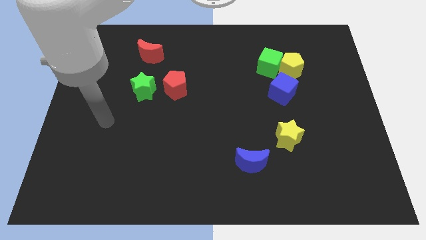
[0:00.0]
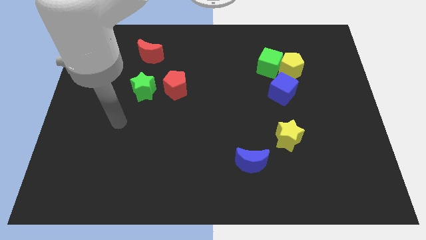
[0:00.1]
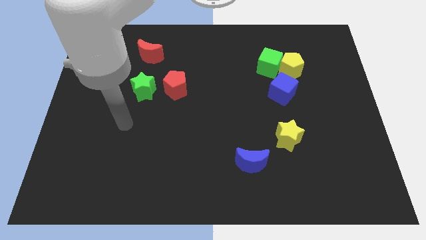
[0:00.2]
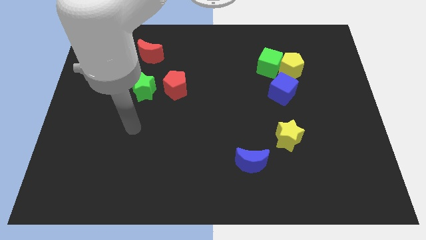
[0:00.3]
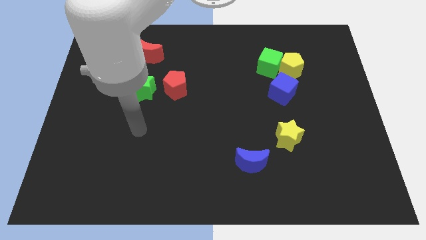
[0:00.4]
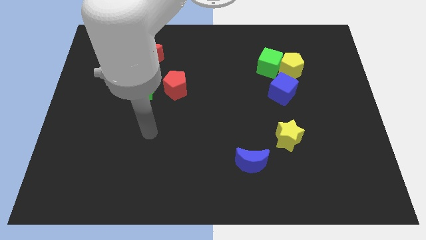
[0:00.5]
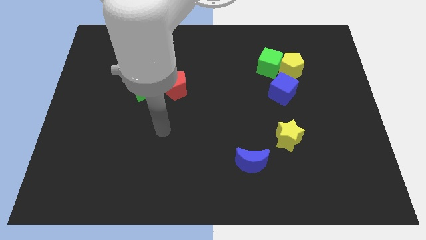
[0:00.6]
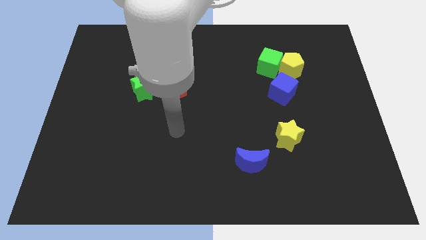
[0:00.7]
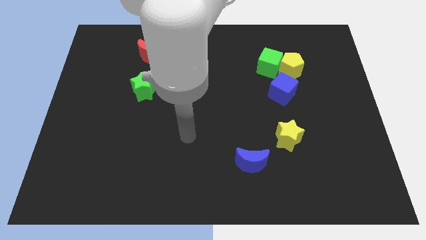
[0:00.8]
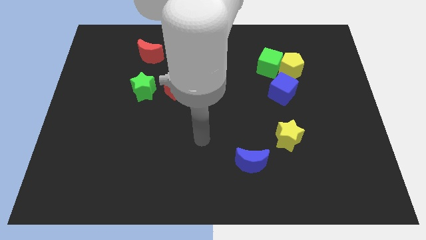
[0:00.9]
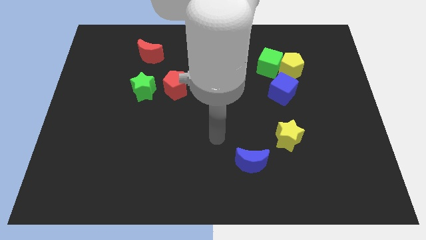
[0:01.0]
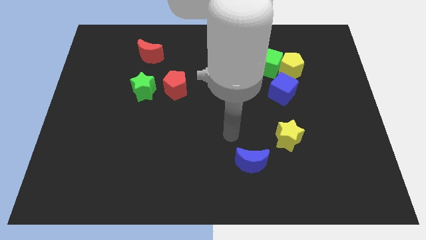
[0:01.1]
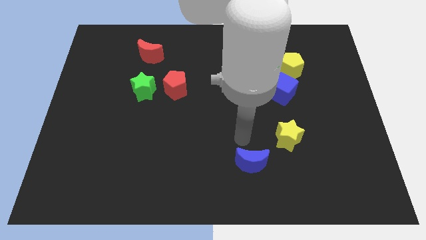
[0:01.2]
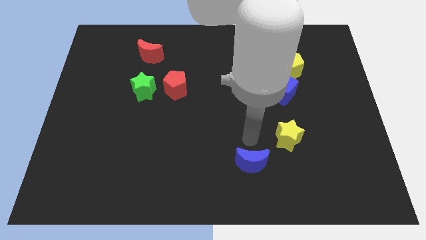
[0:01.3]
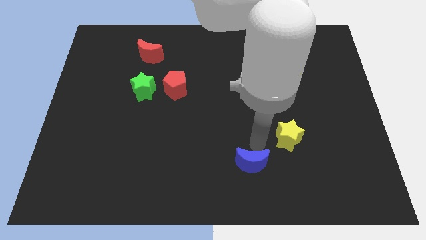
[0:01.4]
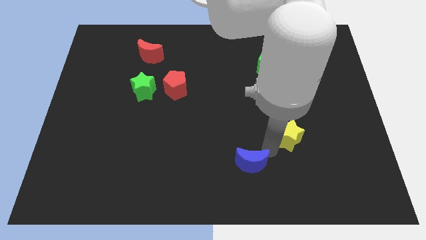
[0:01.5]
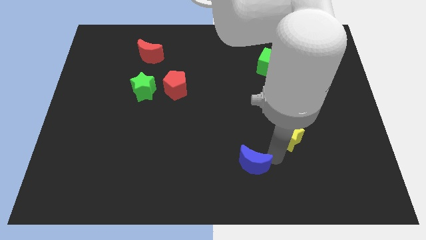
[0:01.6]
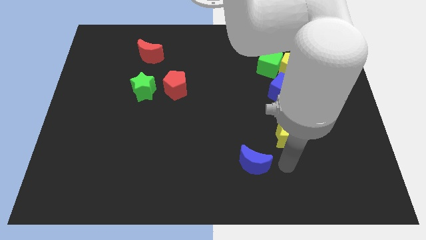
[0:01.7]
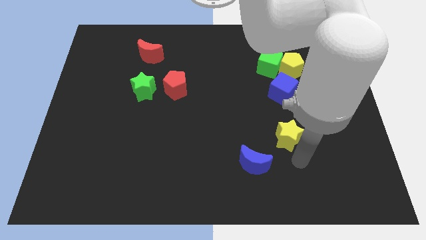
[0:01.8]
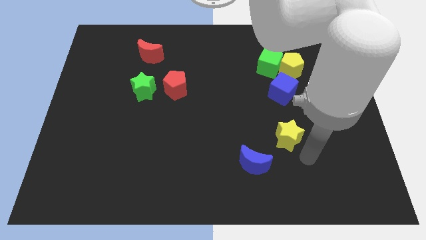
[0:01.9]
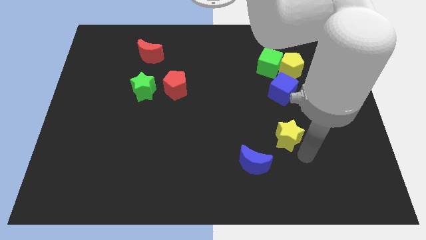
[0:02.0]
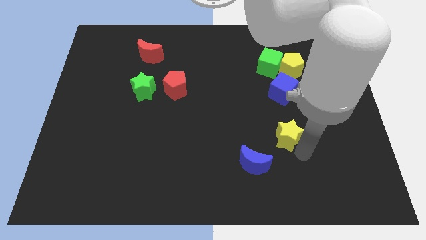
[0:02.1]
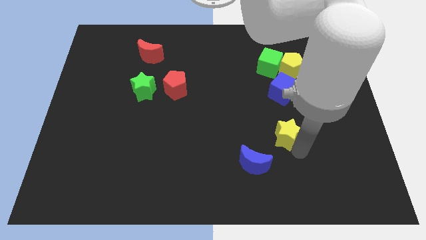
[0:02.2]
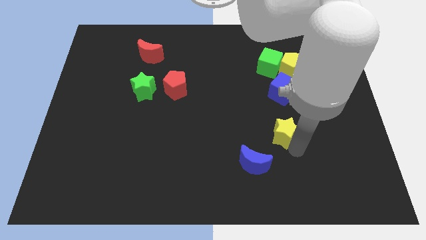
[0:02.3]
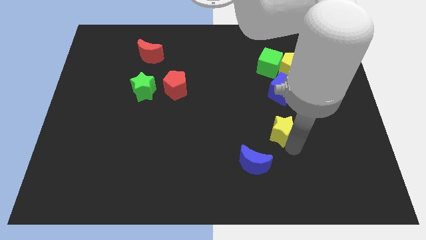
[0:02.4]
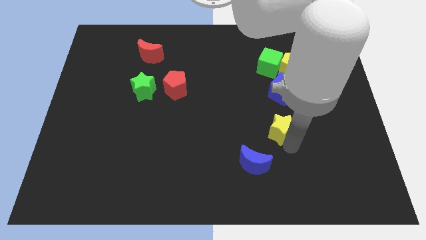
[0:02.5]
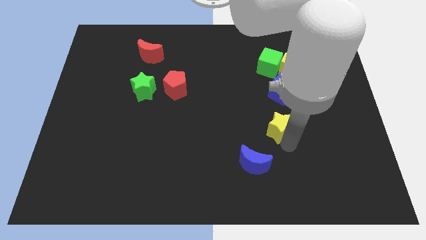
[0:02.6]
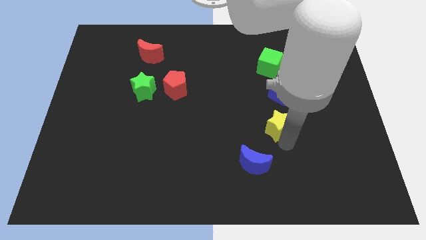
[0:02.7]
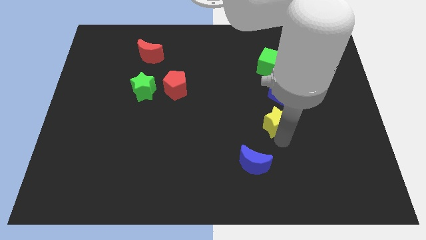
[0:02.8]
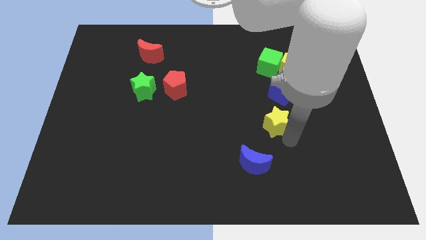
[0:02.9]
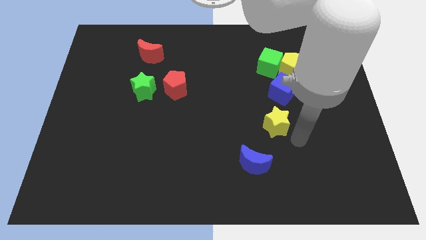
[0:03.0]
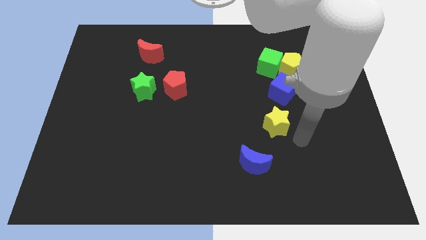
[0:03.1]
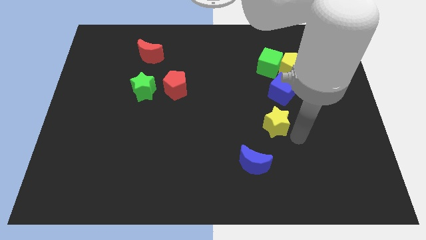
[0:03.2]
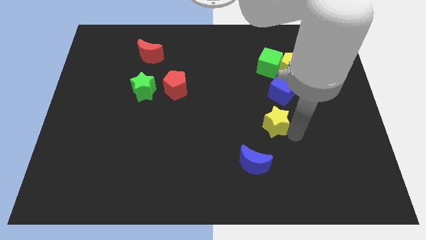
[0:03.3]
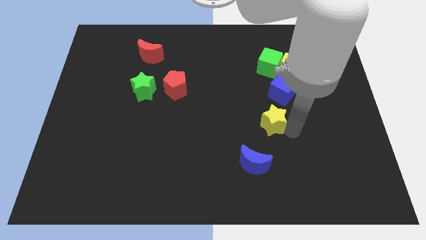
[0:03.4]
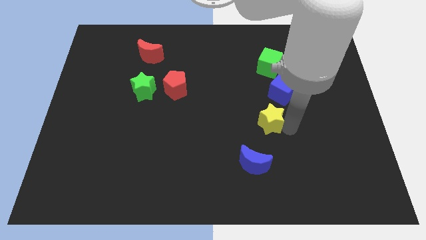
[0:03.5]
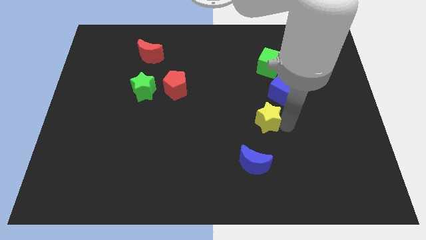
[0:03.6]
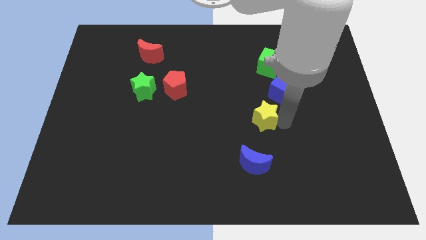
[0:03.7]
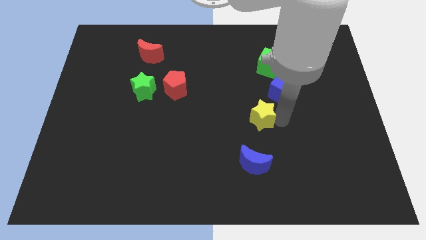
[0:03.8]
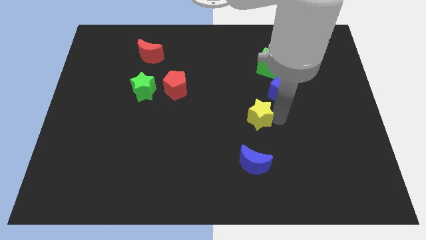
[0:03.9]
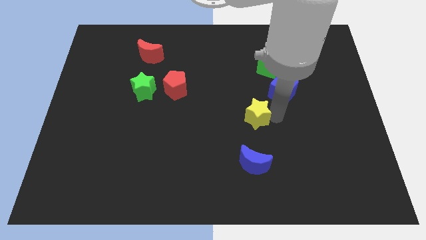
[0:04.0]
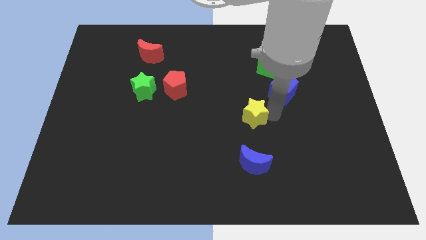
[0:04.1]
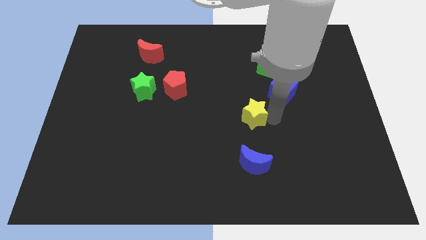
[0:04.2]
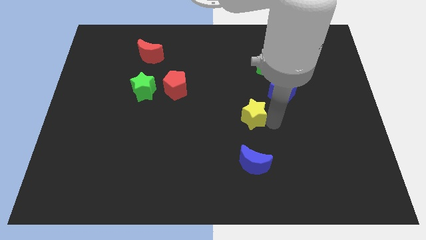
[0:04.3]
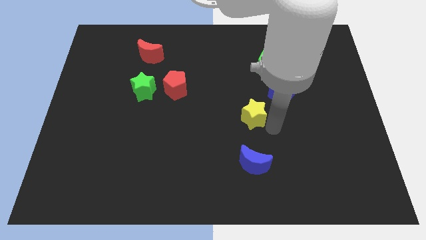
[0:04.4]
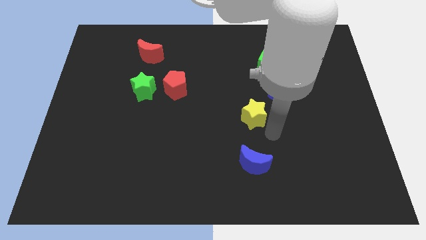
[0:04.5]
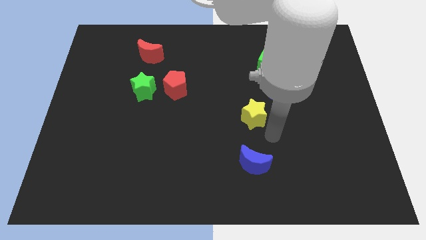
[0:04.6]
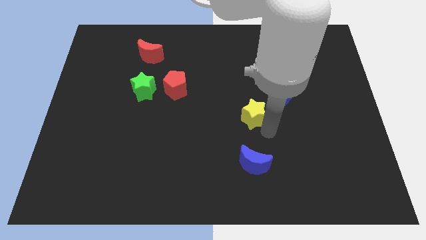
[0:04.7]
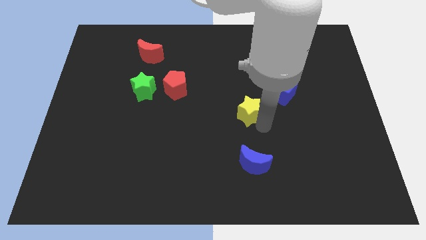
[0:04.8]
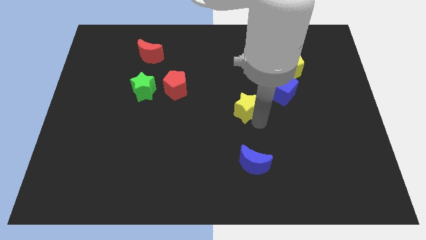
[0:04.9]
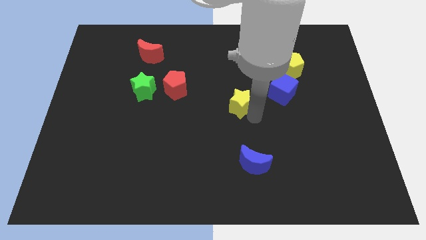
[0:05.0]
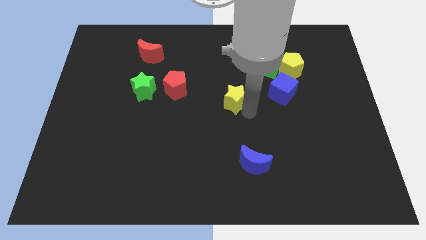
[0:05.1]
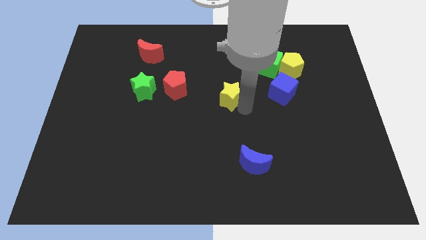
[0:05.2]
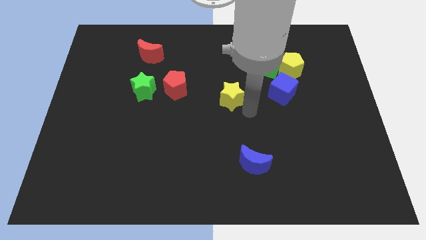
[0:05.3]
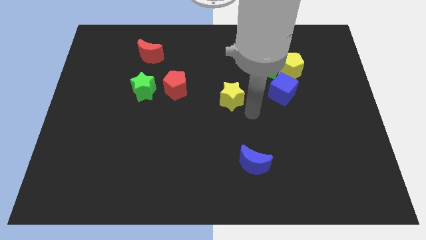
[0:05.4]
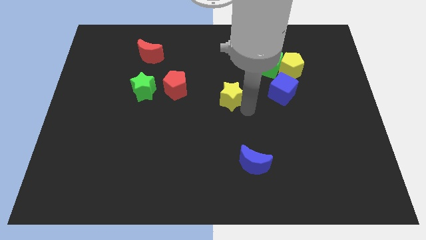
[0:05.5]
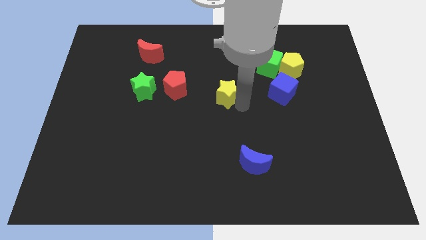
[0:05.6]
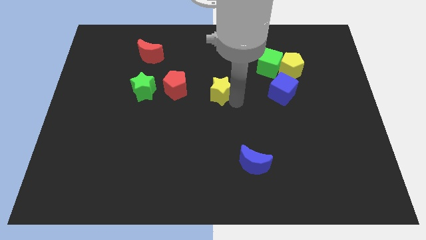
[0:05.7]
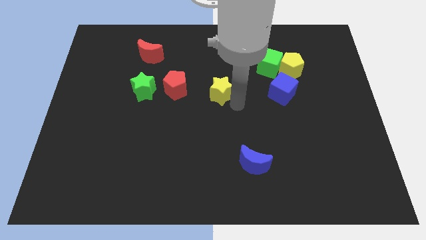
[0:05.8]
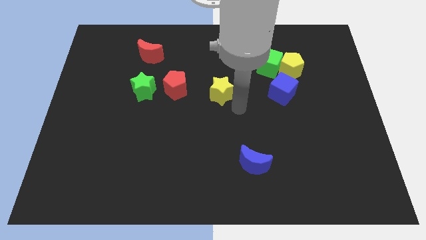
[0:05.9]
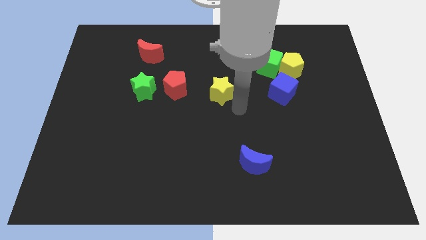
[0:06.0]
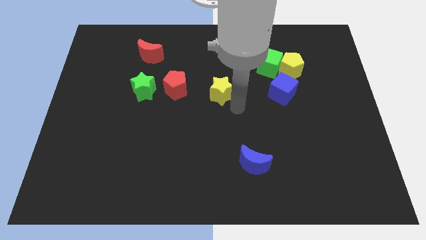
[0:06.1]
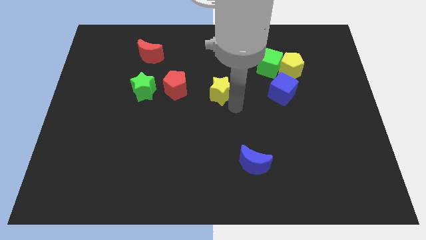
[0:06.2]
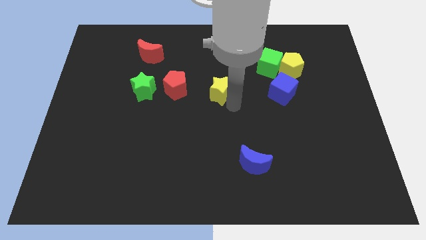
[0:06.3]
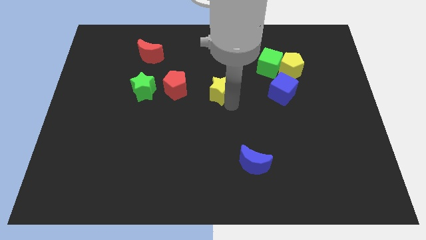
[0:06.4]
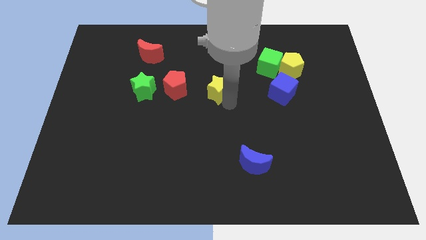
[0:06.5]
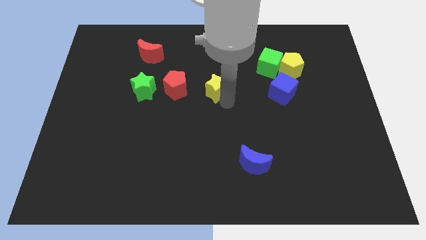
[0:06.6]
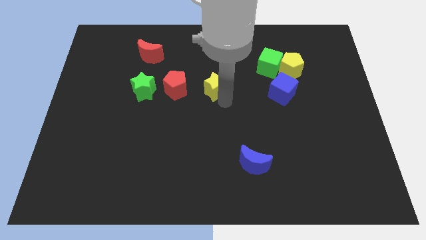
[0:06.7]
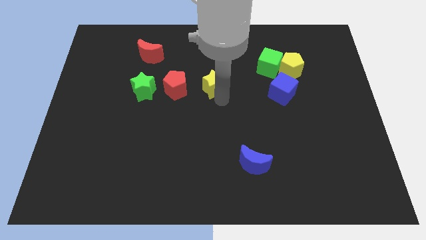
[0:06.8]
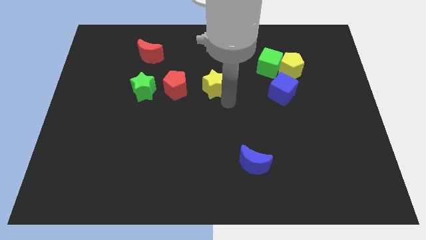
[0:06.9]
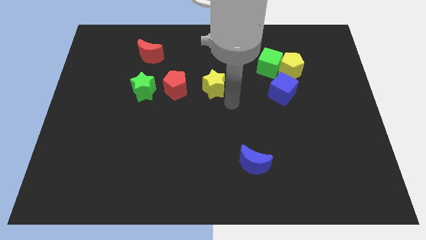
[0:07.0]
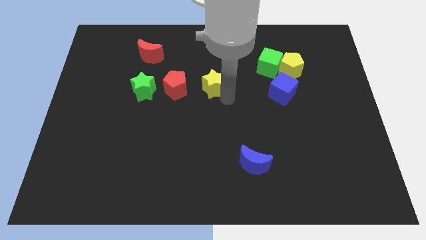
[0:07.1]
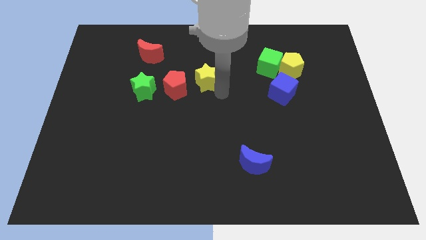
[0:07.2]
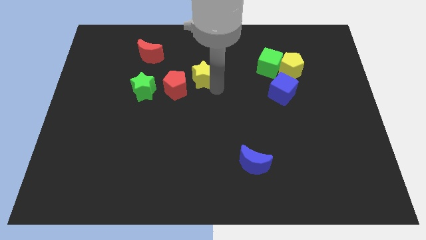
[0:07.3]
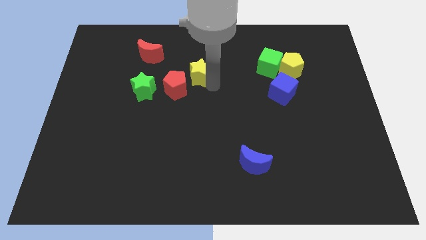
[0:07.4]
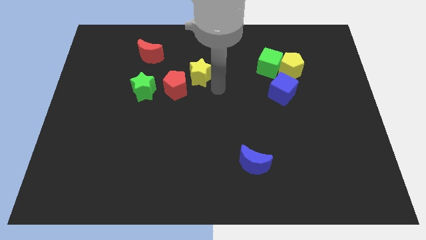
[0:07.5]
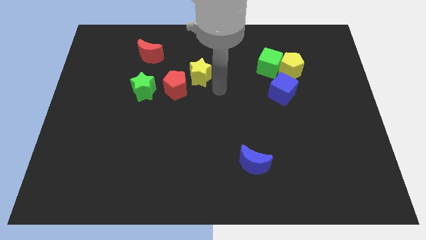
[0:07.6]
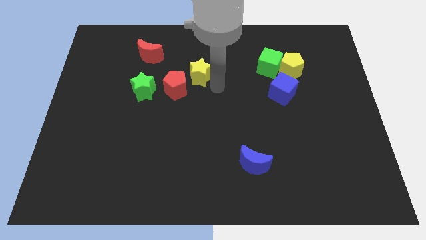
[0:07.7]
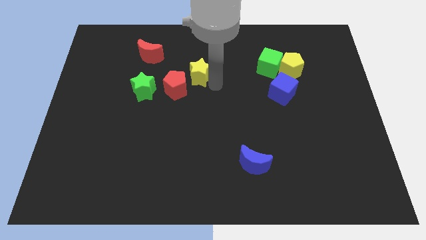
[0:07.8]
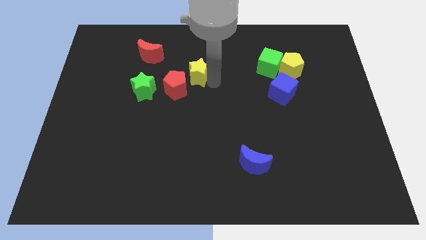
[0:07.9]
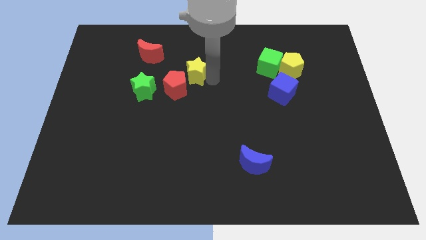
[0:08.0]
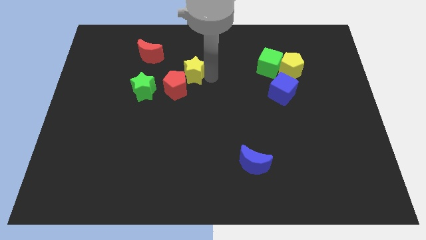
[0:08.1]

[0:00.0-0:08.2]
push the yellow star to the top of the red pentagon
